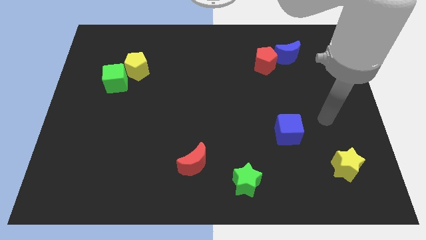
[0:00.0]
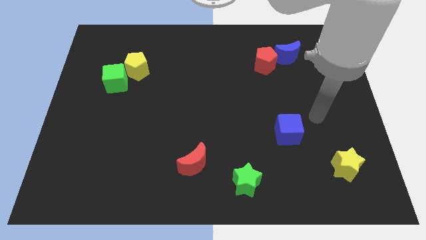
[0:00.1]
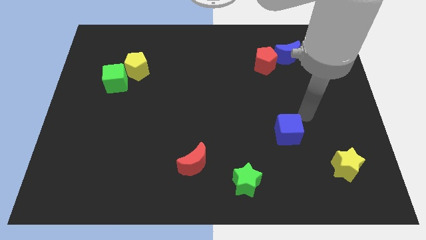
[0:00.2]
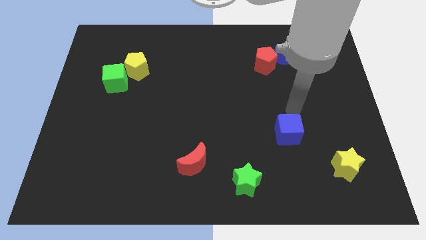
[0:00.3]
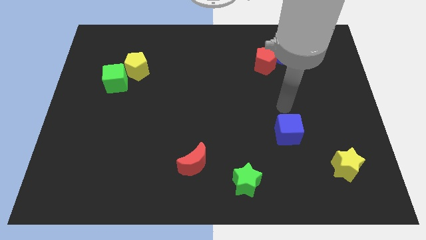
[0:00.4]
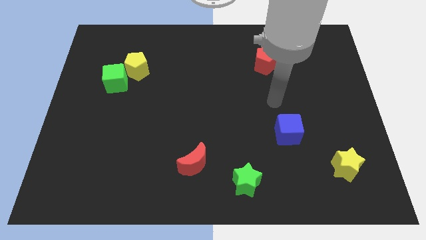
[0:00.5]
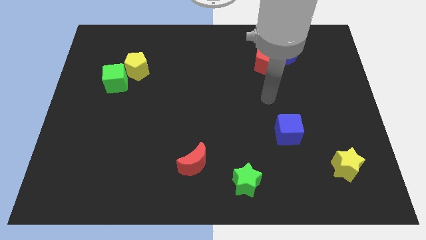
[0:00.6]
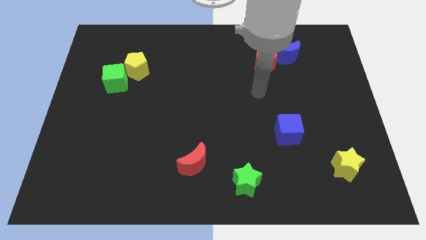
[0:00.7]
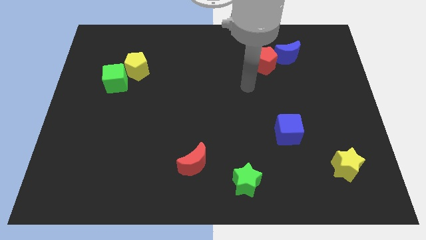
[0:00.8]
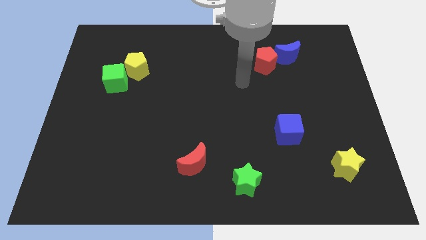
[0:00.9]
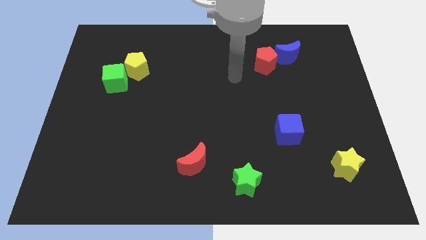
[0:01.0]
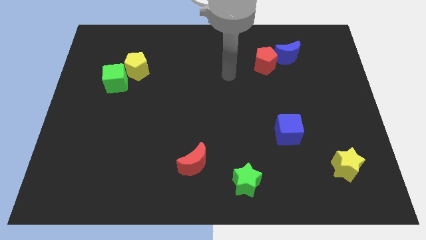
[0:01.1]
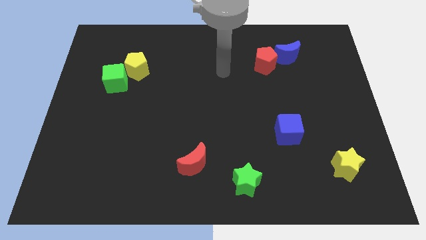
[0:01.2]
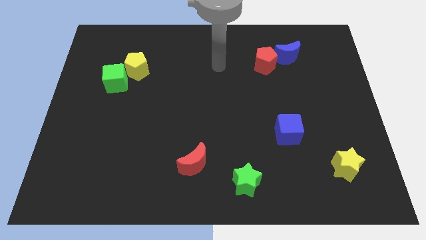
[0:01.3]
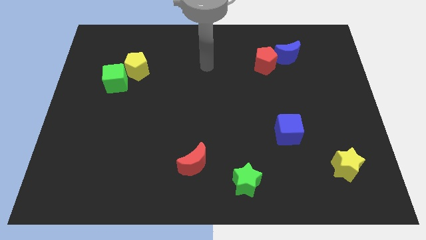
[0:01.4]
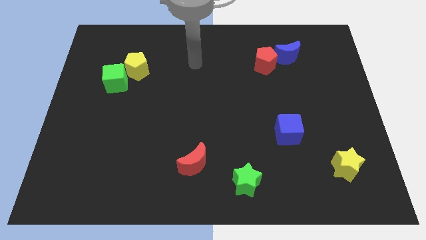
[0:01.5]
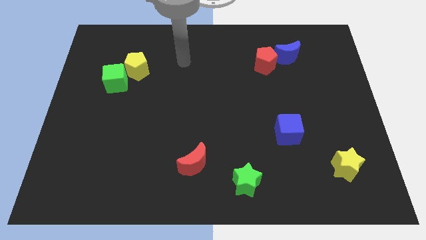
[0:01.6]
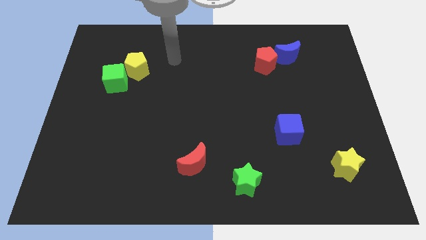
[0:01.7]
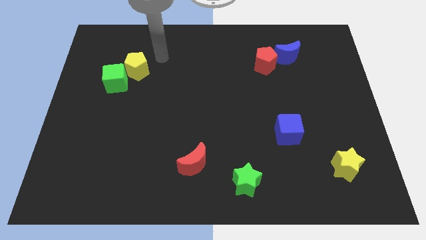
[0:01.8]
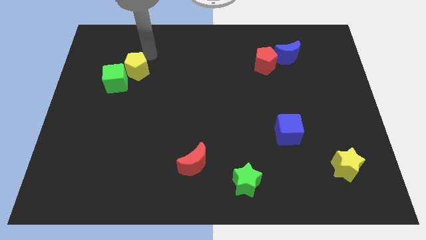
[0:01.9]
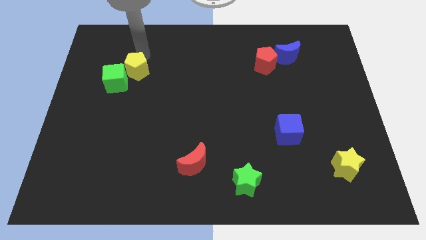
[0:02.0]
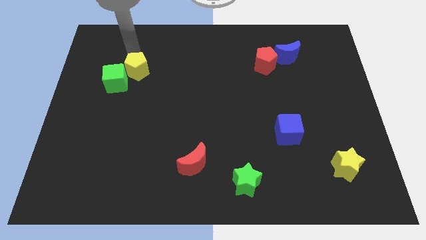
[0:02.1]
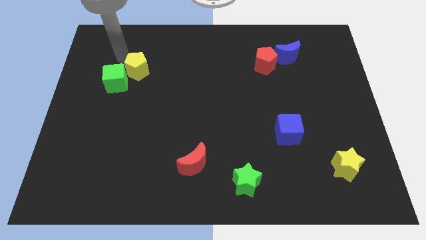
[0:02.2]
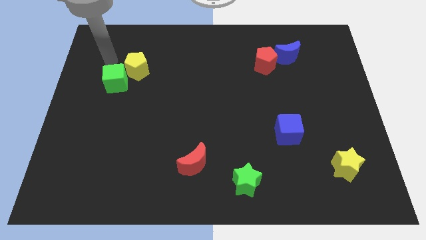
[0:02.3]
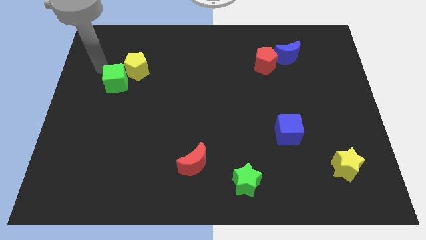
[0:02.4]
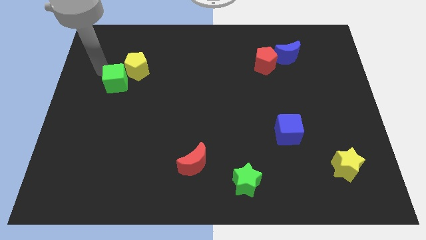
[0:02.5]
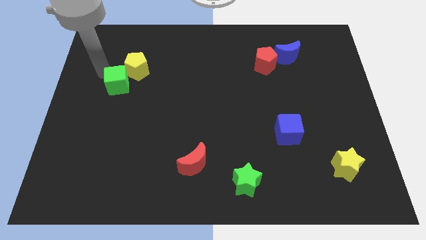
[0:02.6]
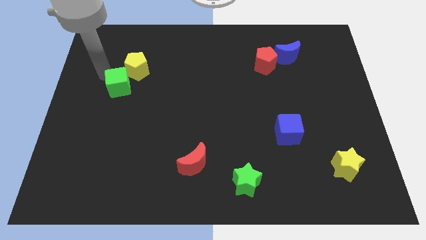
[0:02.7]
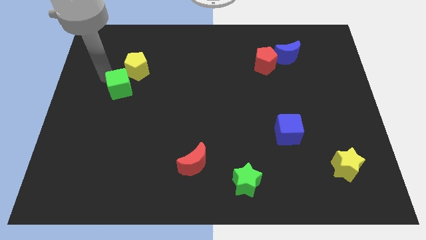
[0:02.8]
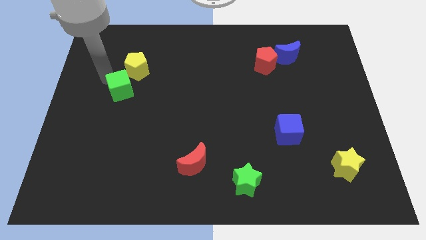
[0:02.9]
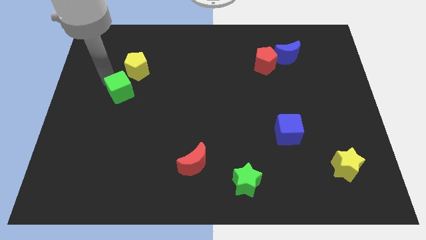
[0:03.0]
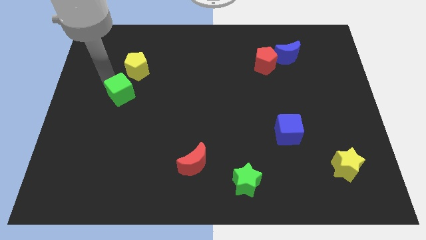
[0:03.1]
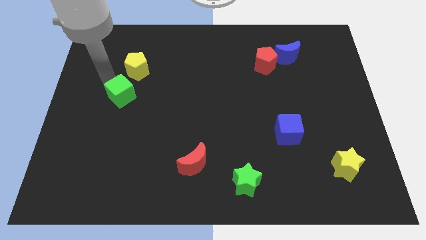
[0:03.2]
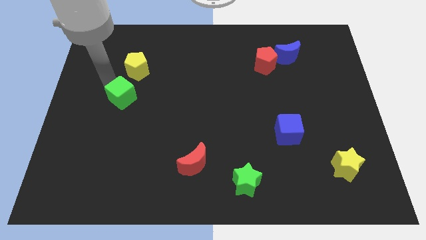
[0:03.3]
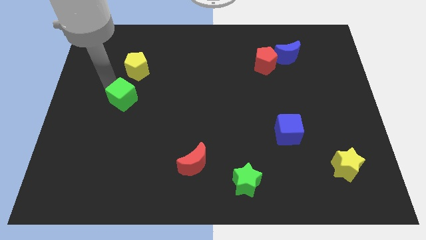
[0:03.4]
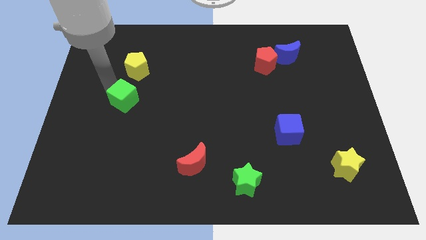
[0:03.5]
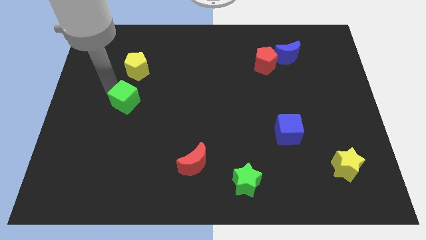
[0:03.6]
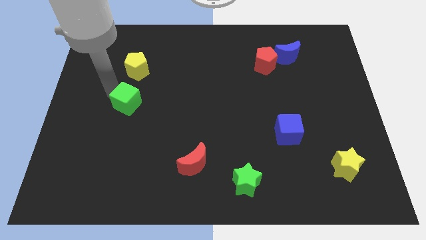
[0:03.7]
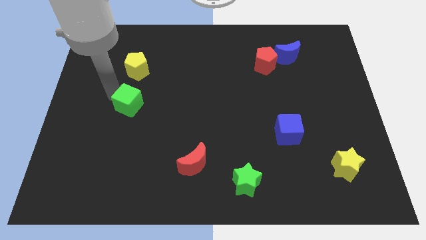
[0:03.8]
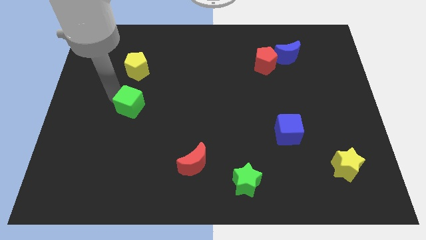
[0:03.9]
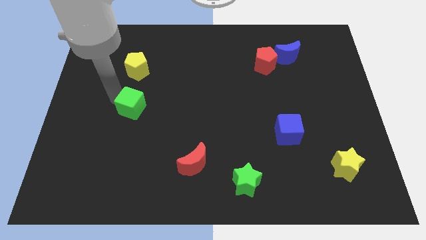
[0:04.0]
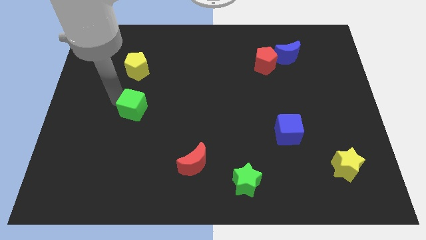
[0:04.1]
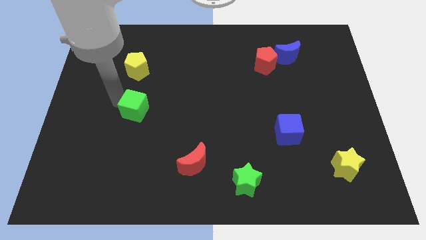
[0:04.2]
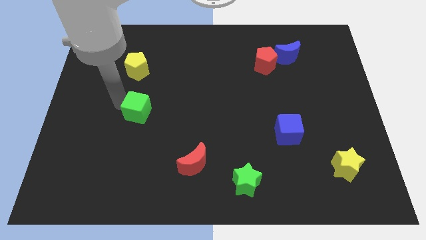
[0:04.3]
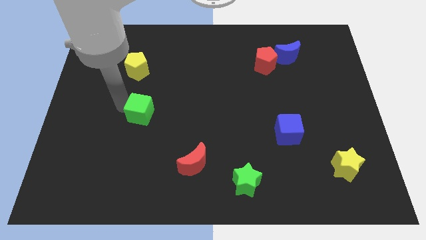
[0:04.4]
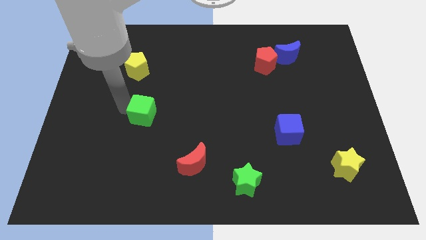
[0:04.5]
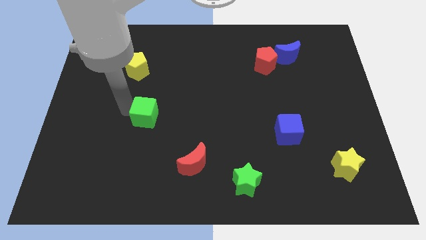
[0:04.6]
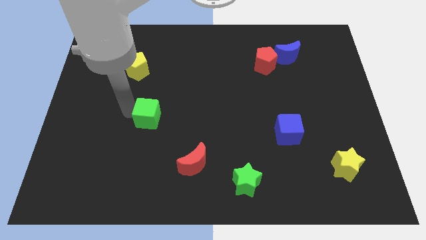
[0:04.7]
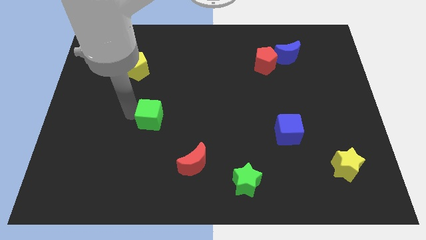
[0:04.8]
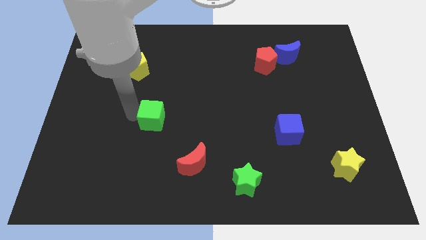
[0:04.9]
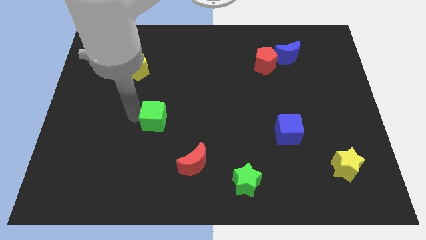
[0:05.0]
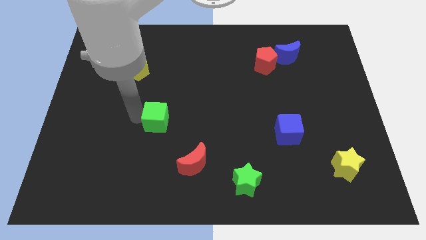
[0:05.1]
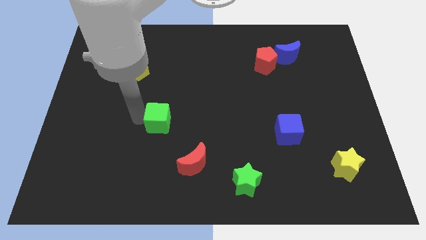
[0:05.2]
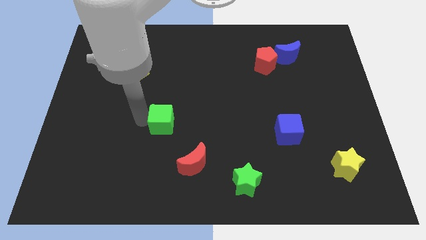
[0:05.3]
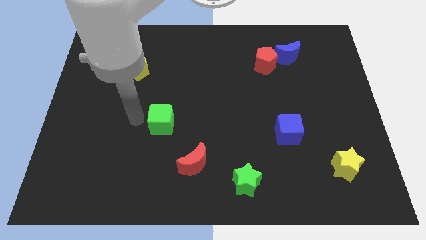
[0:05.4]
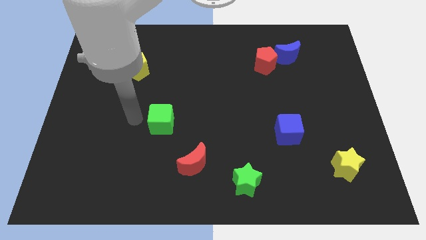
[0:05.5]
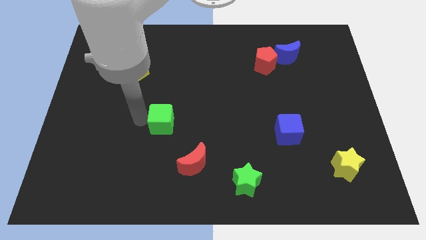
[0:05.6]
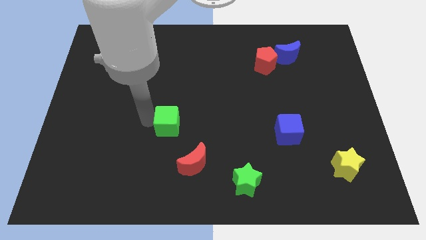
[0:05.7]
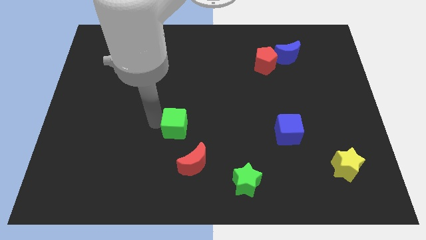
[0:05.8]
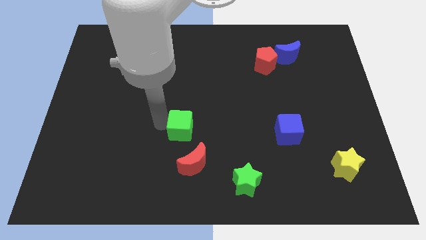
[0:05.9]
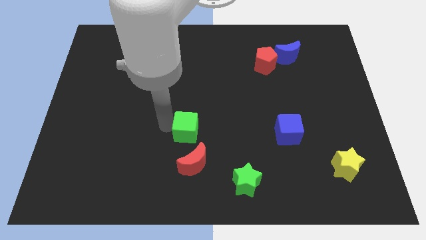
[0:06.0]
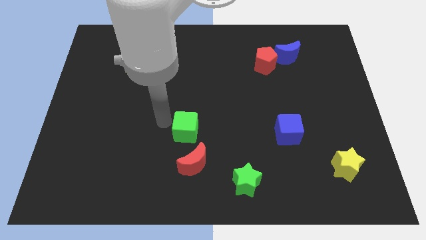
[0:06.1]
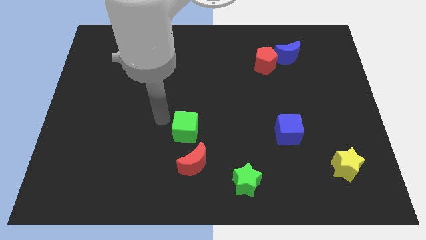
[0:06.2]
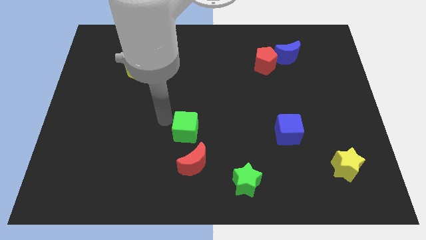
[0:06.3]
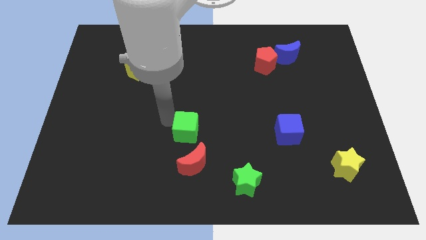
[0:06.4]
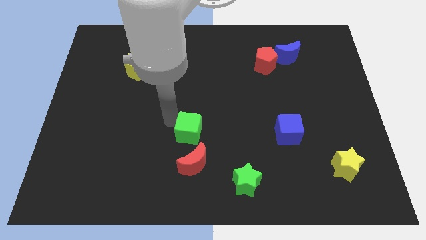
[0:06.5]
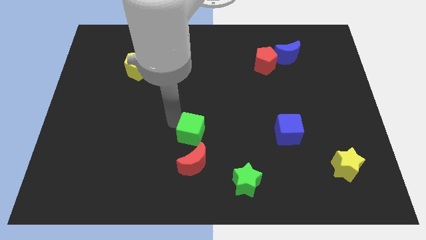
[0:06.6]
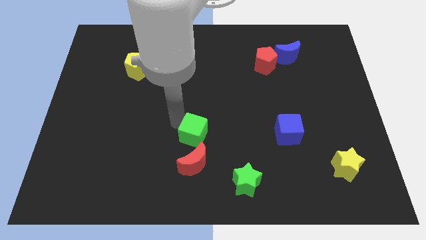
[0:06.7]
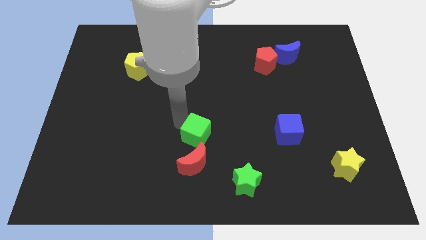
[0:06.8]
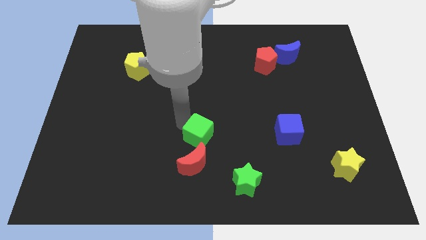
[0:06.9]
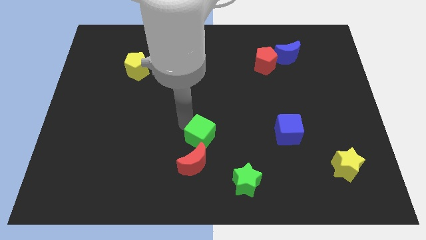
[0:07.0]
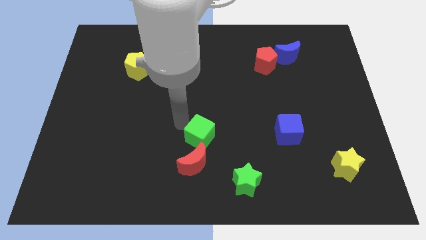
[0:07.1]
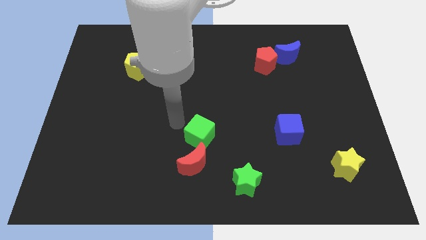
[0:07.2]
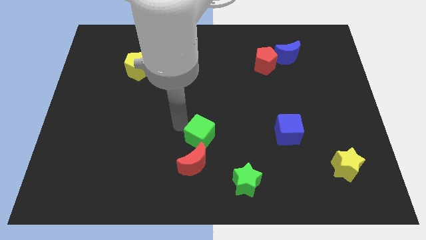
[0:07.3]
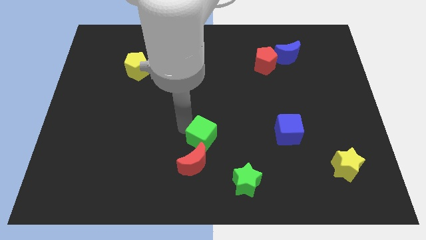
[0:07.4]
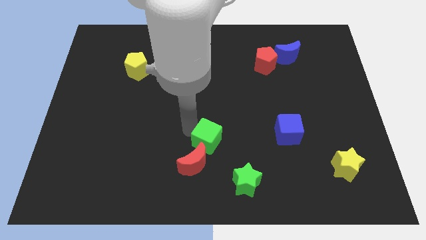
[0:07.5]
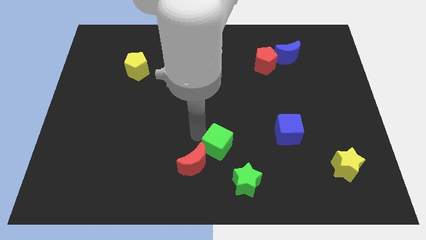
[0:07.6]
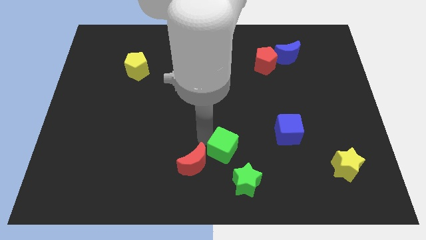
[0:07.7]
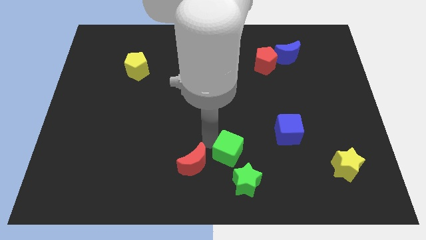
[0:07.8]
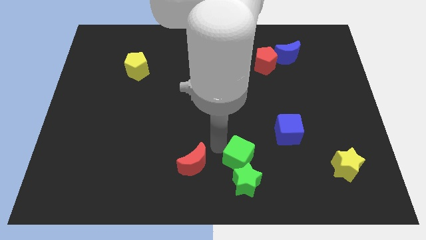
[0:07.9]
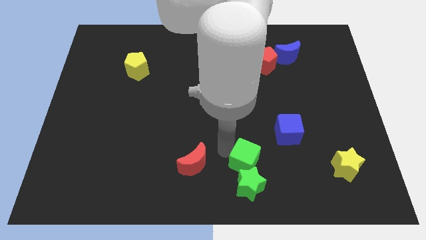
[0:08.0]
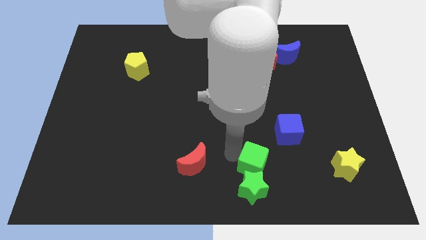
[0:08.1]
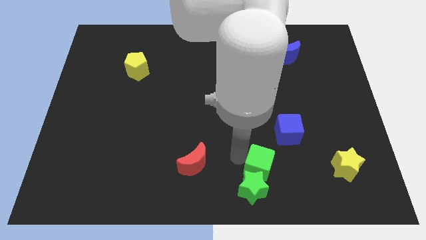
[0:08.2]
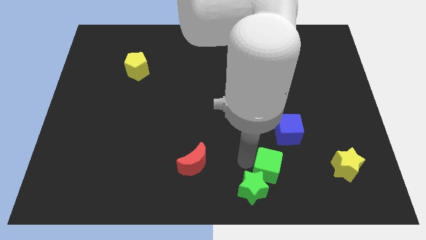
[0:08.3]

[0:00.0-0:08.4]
push the green cube to the left of the yellow star
